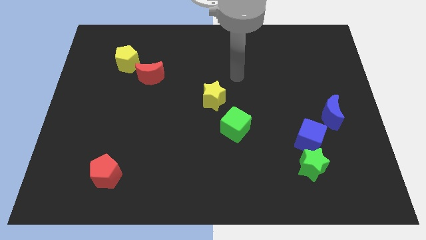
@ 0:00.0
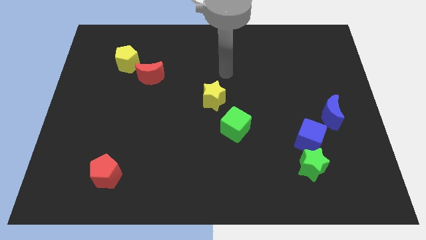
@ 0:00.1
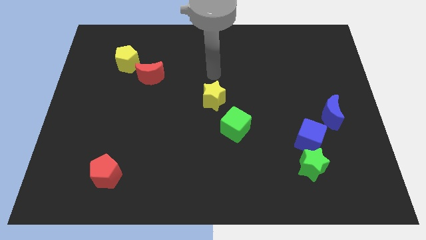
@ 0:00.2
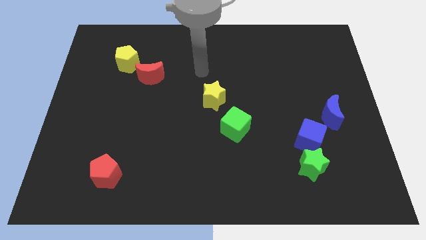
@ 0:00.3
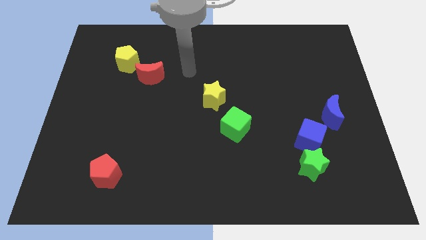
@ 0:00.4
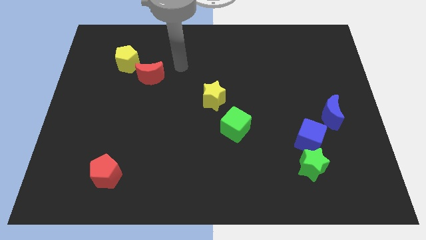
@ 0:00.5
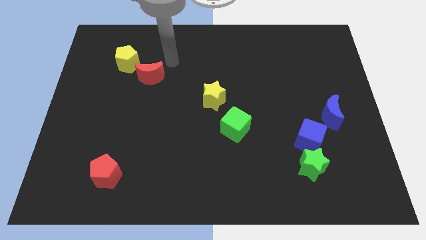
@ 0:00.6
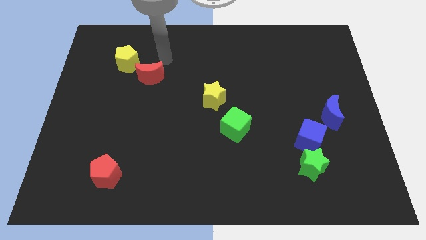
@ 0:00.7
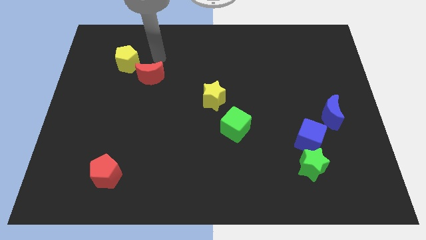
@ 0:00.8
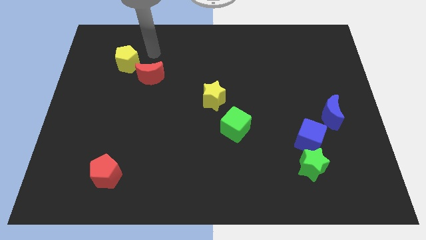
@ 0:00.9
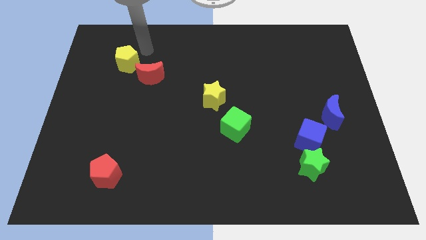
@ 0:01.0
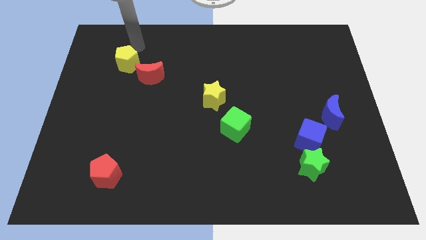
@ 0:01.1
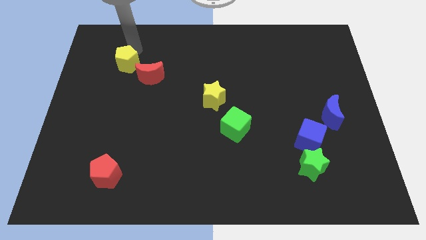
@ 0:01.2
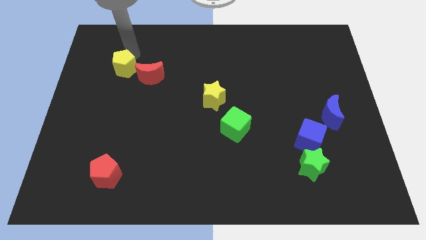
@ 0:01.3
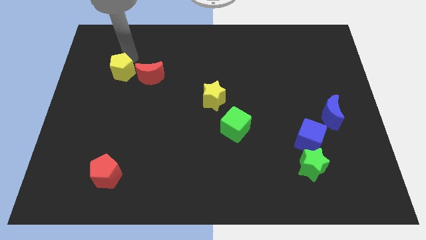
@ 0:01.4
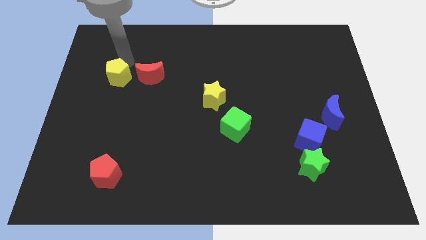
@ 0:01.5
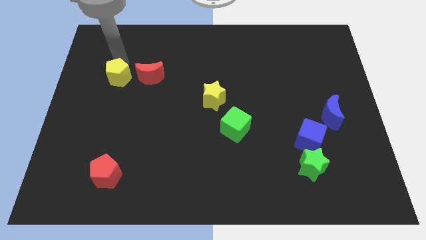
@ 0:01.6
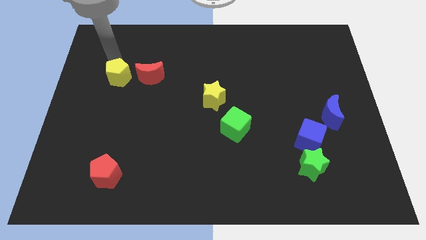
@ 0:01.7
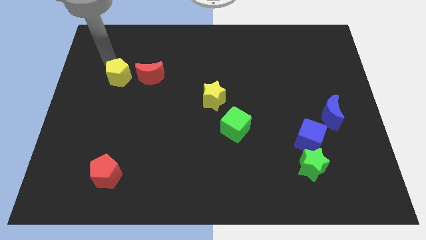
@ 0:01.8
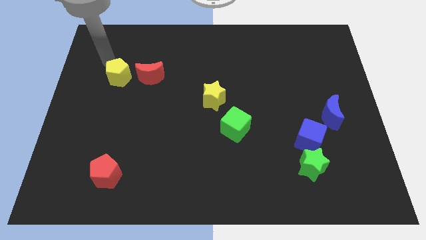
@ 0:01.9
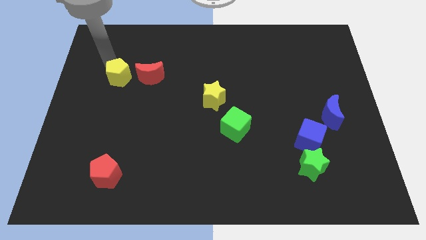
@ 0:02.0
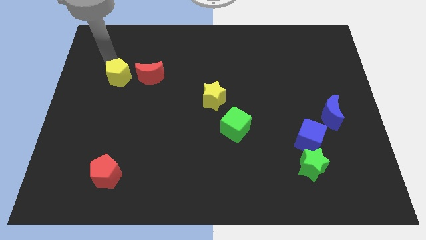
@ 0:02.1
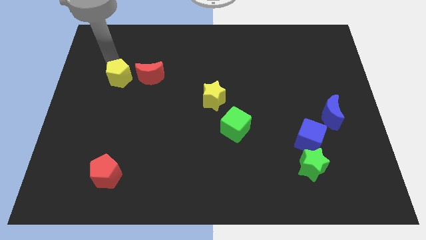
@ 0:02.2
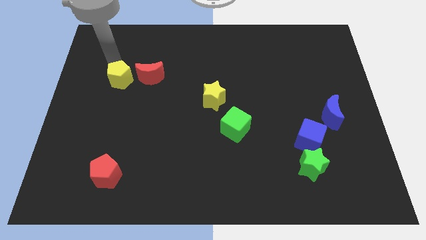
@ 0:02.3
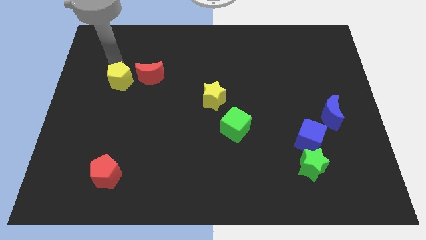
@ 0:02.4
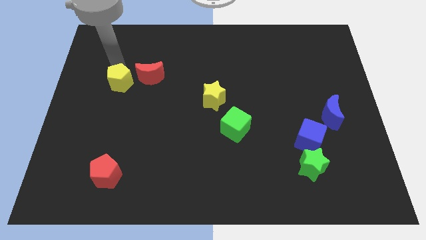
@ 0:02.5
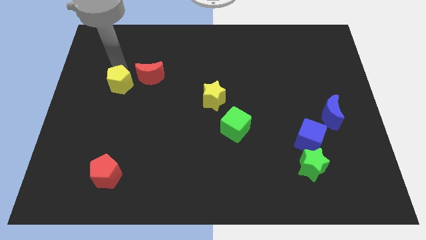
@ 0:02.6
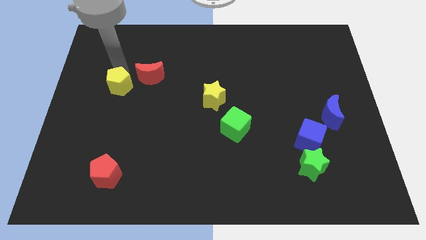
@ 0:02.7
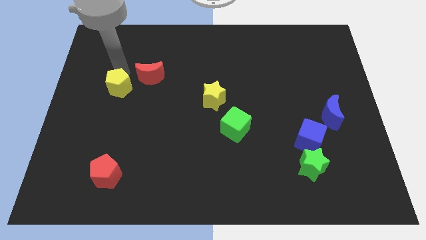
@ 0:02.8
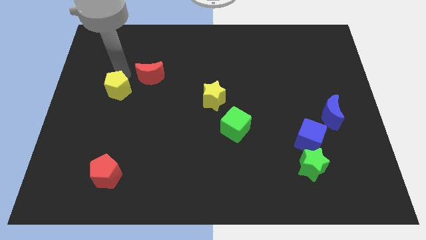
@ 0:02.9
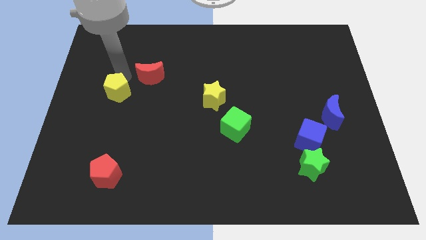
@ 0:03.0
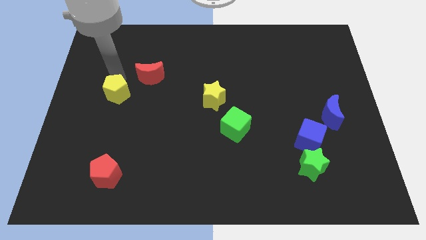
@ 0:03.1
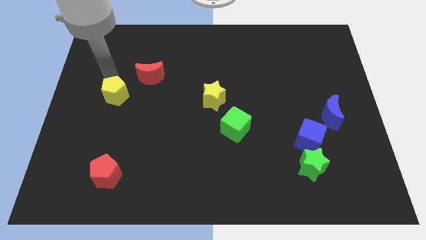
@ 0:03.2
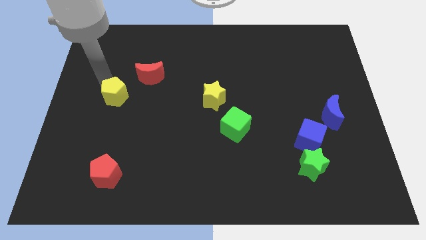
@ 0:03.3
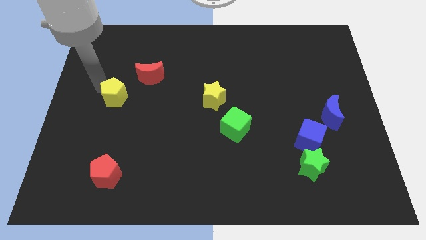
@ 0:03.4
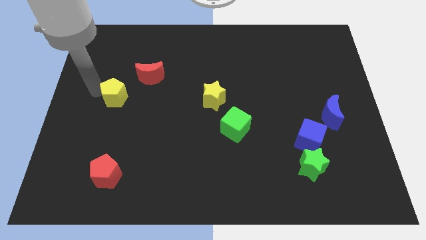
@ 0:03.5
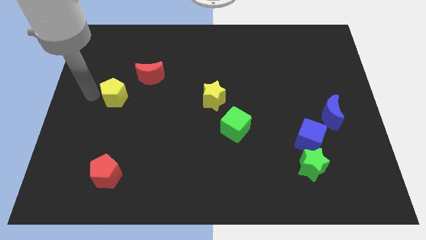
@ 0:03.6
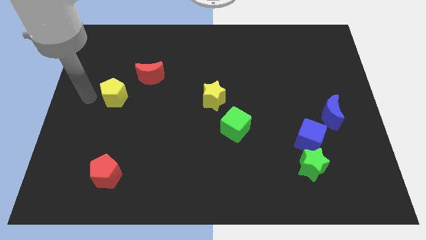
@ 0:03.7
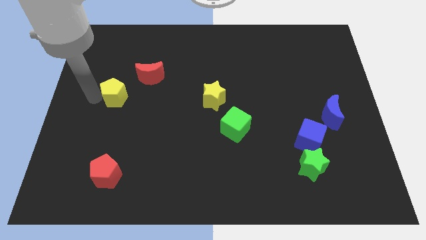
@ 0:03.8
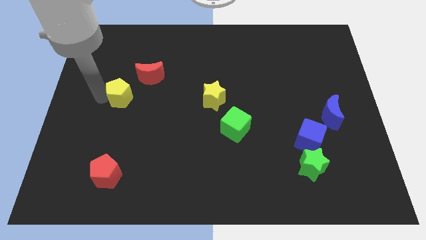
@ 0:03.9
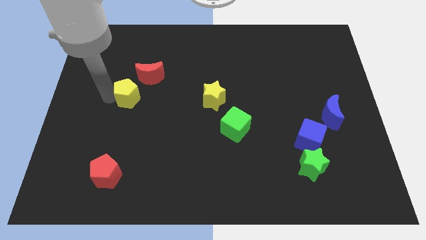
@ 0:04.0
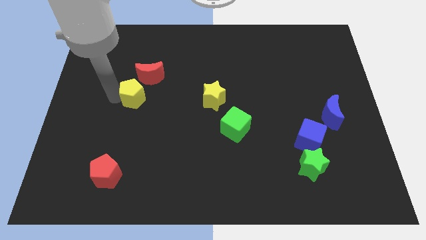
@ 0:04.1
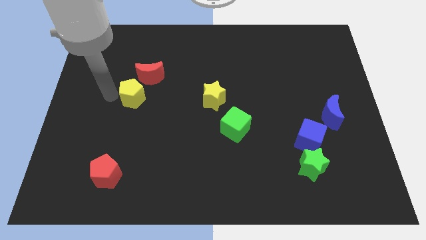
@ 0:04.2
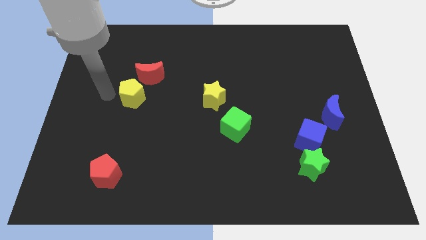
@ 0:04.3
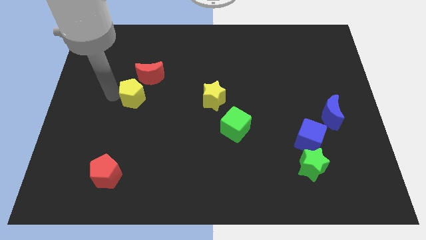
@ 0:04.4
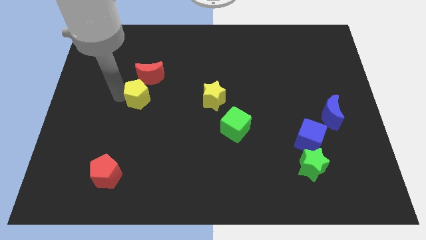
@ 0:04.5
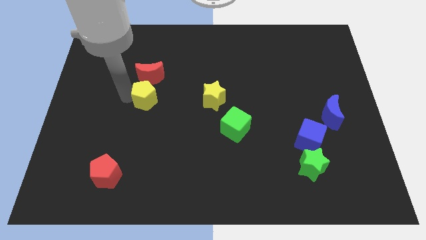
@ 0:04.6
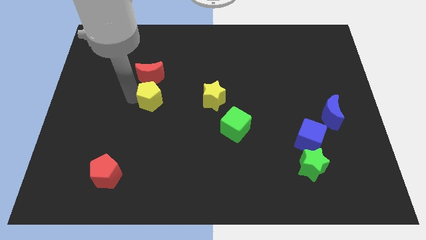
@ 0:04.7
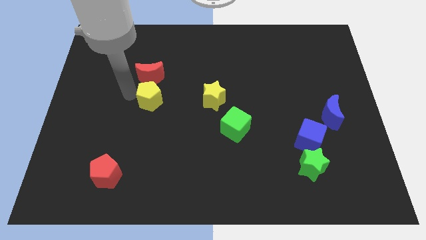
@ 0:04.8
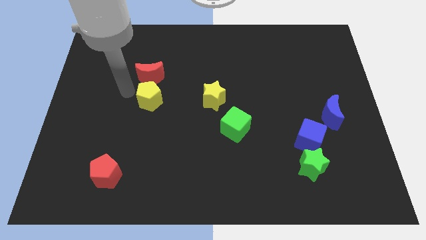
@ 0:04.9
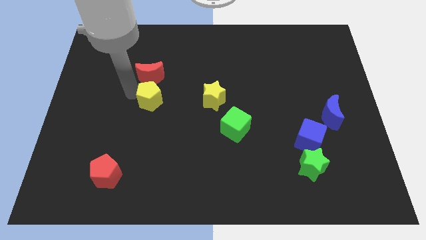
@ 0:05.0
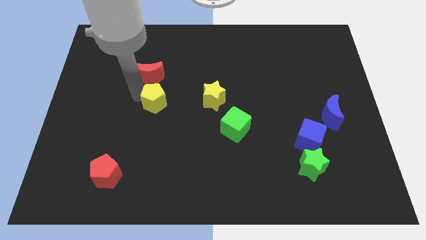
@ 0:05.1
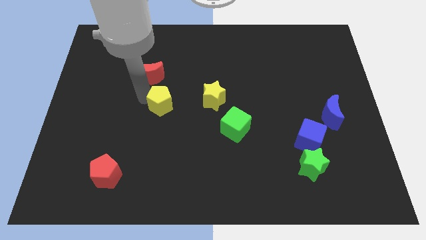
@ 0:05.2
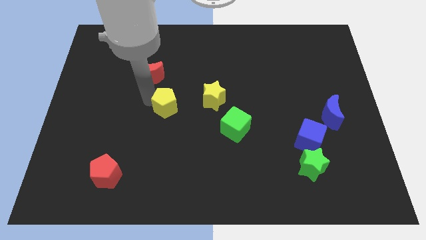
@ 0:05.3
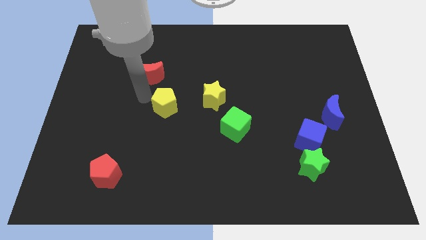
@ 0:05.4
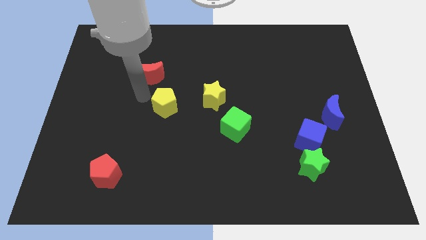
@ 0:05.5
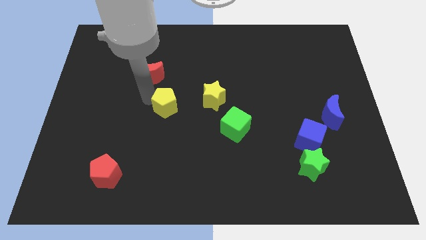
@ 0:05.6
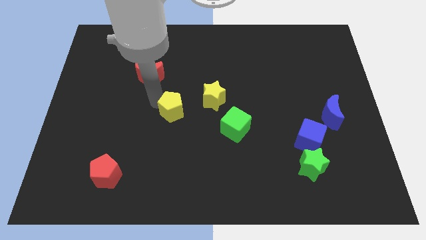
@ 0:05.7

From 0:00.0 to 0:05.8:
slide the yellow pentagon diagonally downwards and right

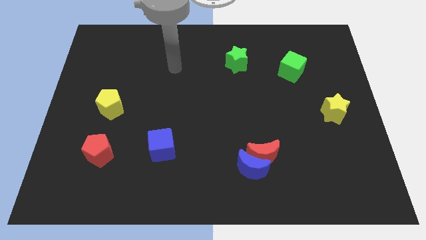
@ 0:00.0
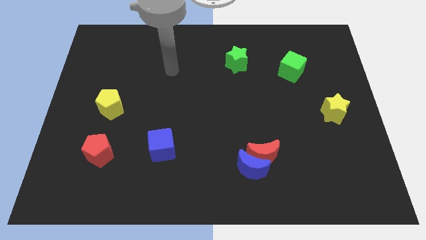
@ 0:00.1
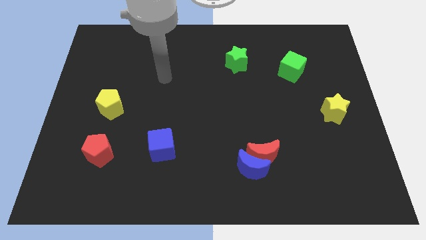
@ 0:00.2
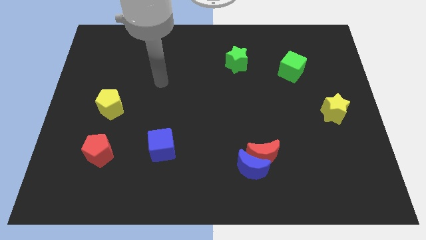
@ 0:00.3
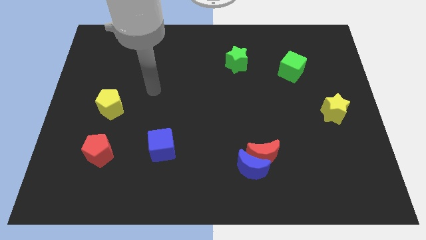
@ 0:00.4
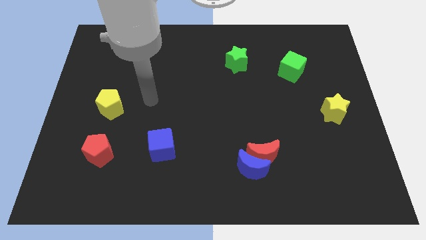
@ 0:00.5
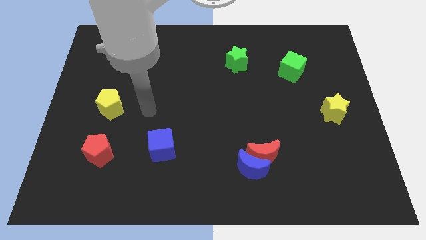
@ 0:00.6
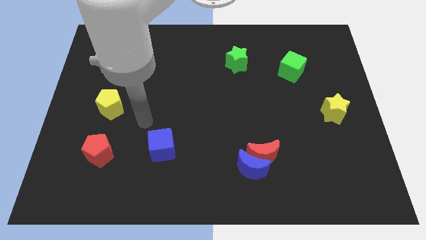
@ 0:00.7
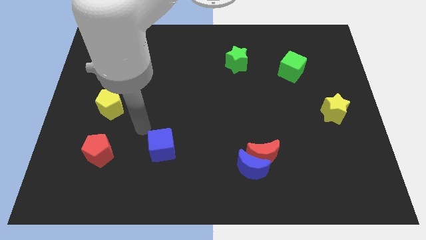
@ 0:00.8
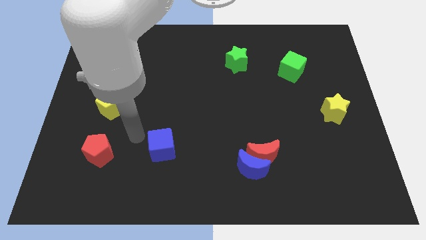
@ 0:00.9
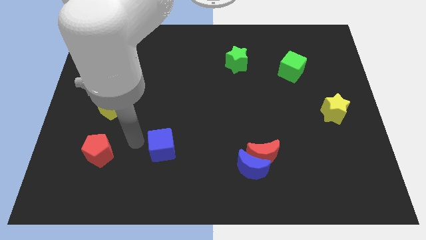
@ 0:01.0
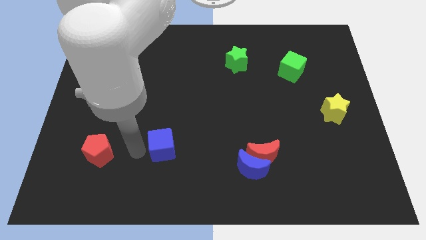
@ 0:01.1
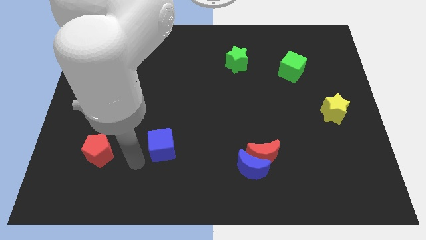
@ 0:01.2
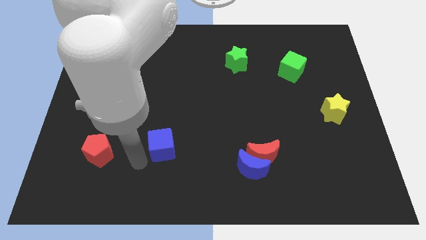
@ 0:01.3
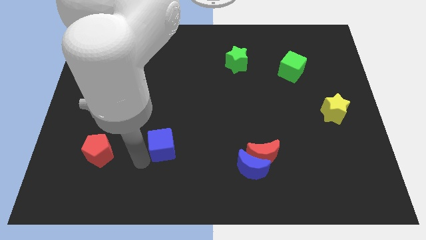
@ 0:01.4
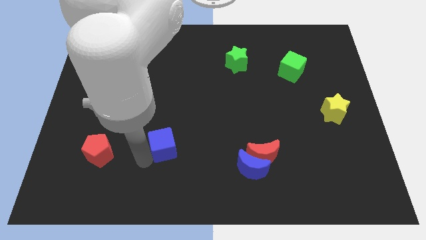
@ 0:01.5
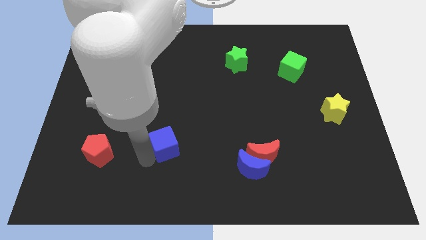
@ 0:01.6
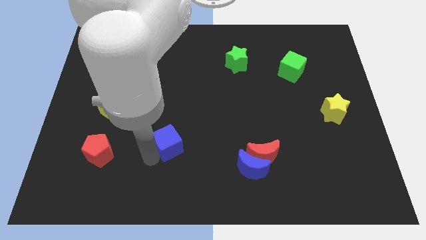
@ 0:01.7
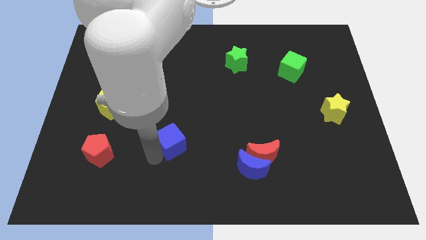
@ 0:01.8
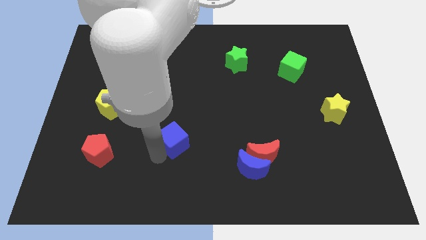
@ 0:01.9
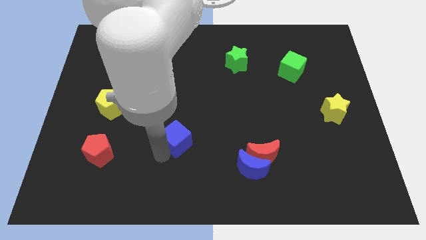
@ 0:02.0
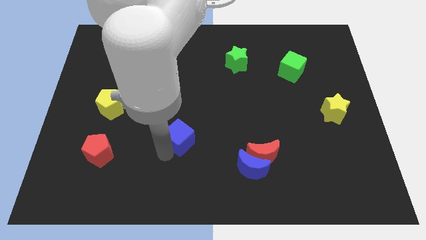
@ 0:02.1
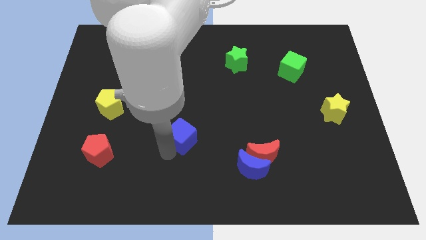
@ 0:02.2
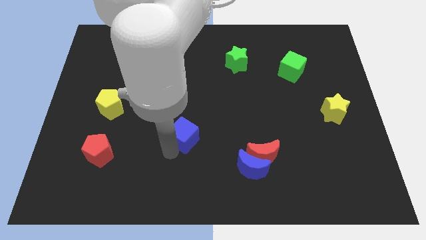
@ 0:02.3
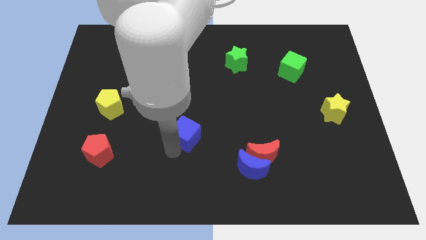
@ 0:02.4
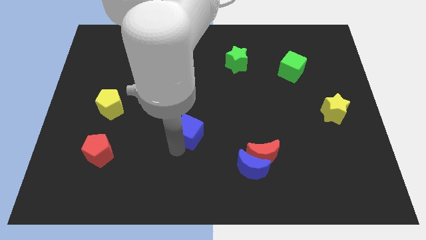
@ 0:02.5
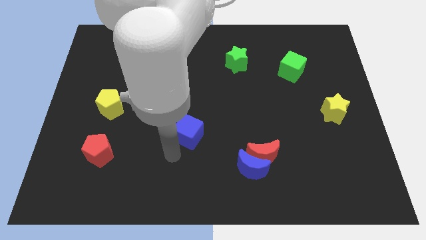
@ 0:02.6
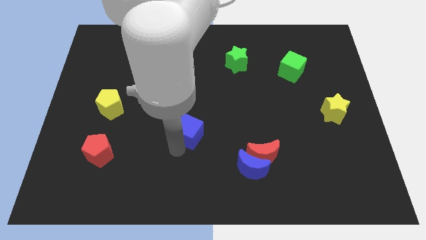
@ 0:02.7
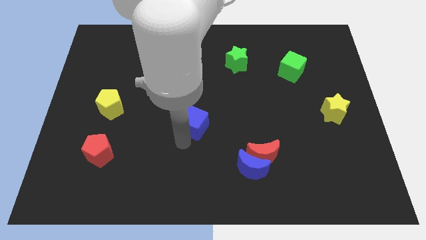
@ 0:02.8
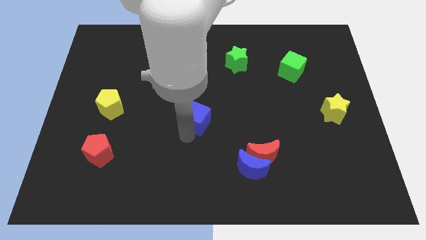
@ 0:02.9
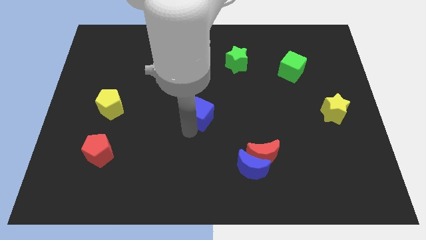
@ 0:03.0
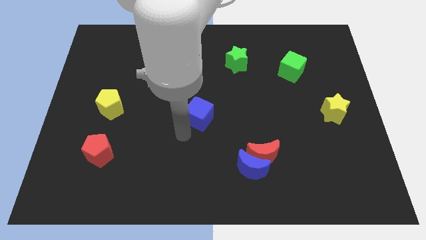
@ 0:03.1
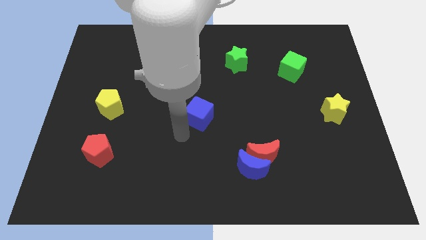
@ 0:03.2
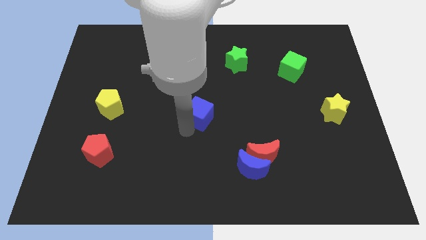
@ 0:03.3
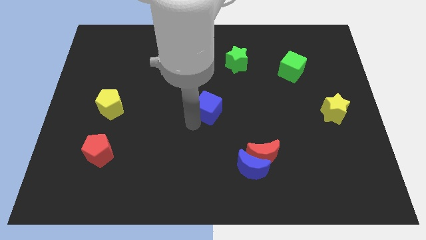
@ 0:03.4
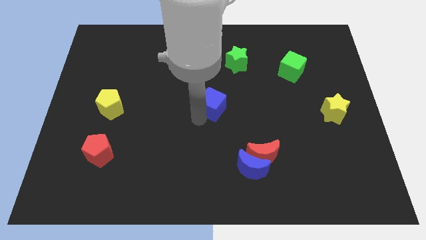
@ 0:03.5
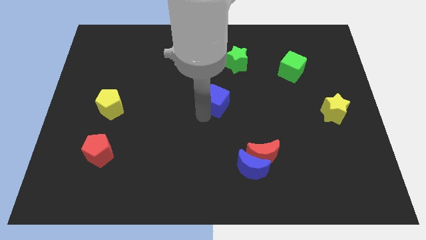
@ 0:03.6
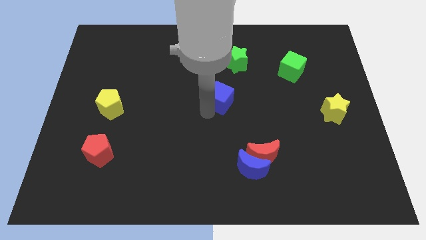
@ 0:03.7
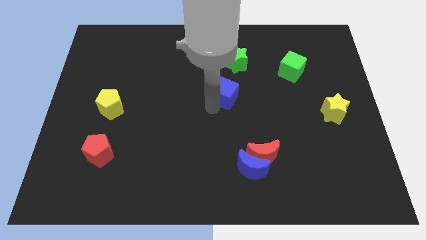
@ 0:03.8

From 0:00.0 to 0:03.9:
move the blue cube diagonally upwards and to the right
